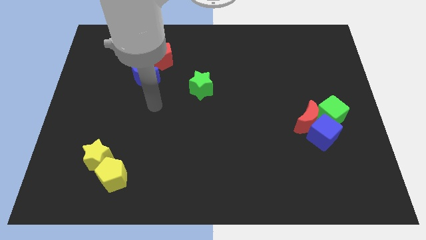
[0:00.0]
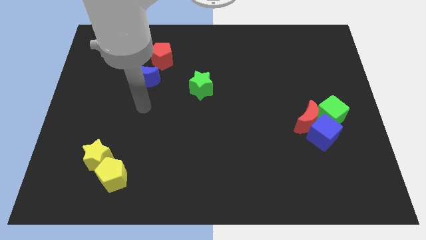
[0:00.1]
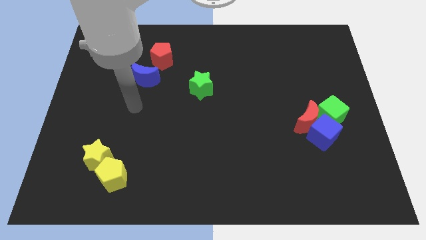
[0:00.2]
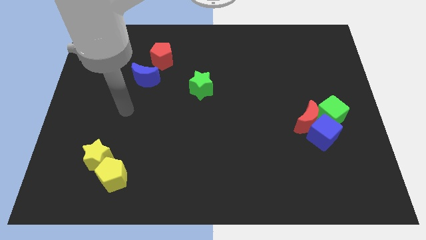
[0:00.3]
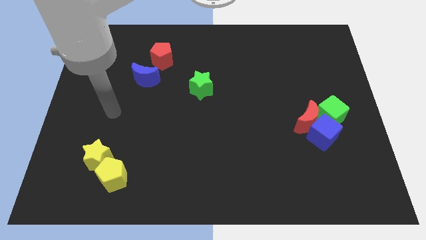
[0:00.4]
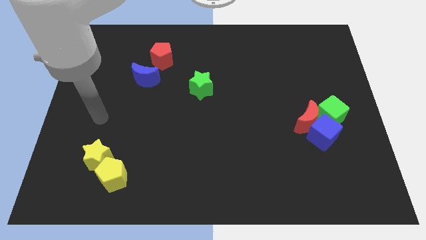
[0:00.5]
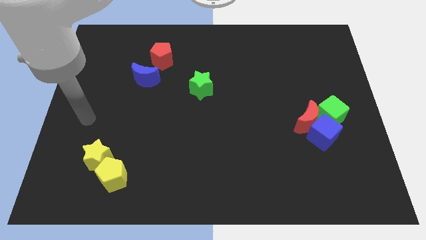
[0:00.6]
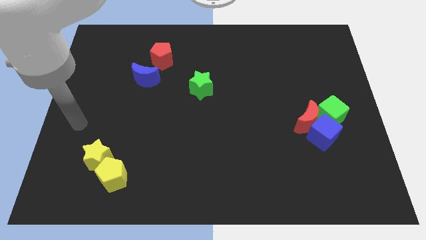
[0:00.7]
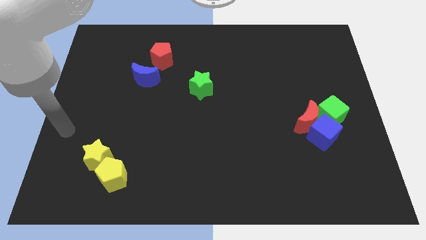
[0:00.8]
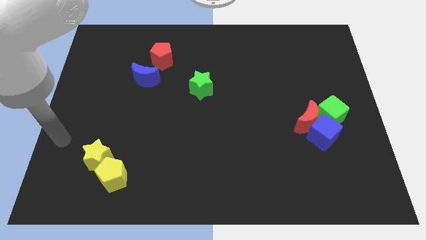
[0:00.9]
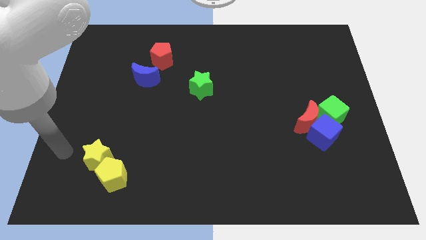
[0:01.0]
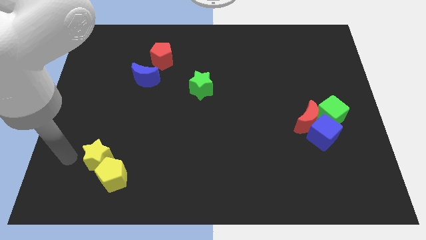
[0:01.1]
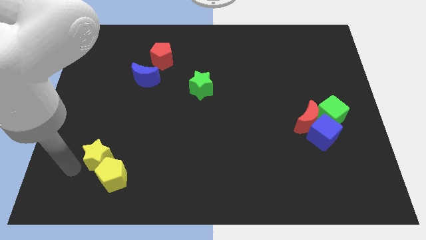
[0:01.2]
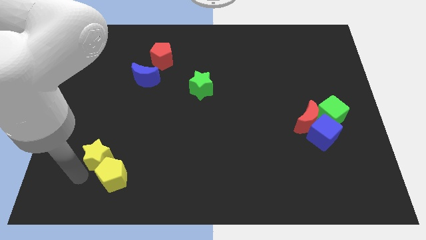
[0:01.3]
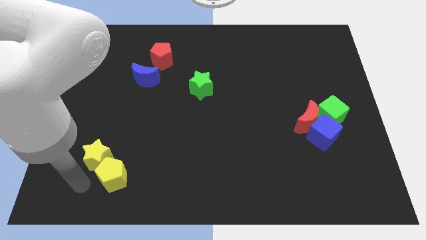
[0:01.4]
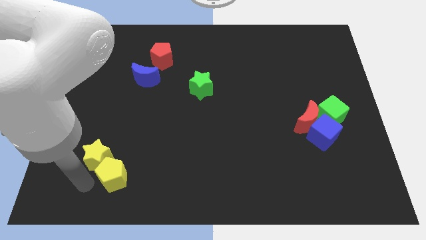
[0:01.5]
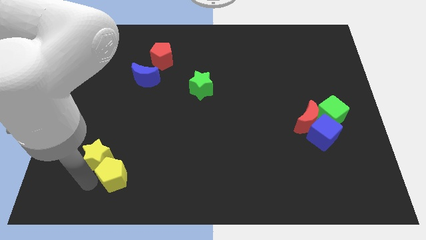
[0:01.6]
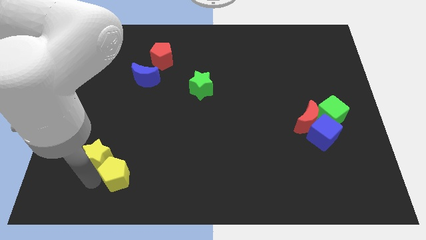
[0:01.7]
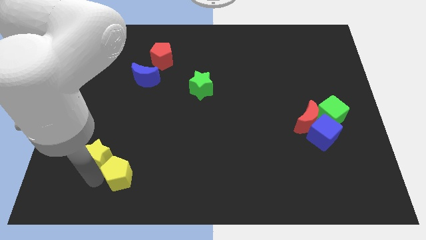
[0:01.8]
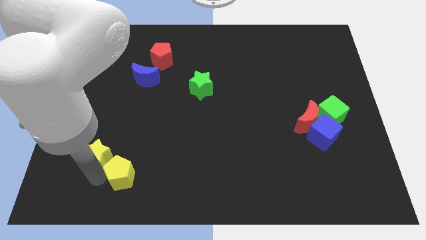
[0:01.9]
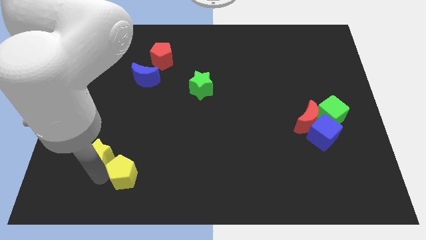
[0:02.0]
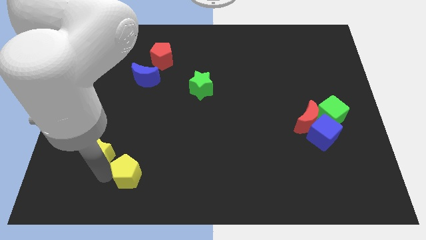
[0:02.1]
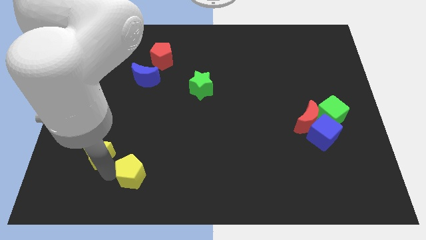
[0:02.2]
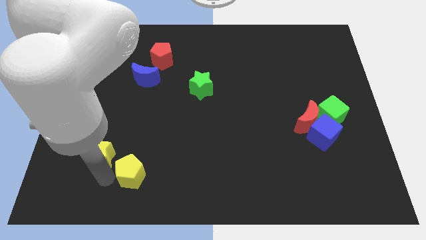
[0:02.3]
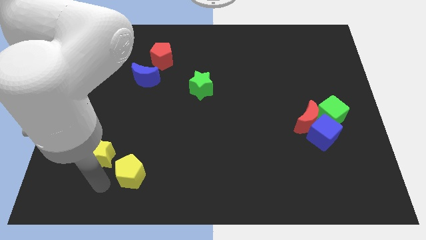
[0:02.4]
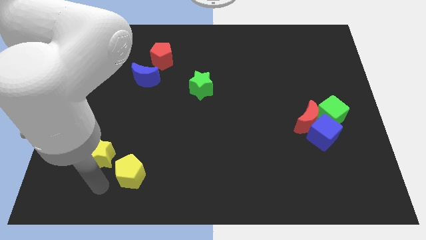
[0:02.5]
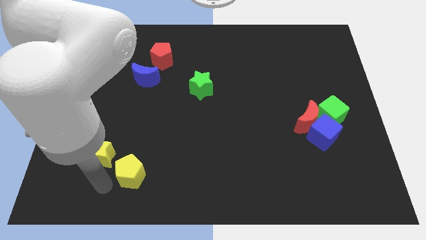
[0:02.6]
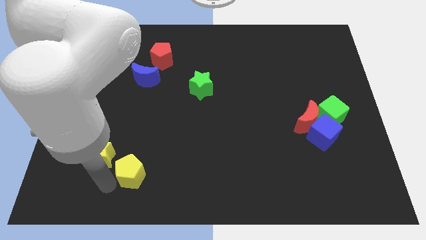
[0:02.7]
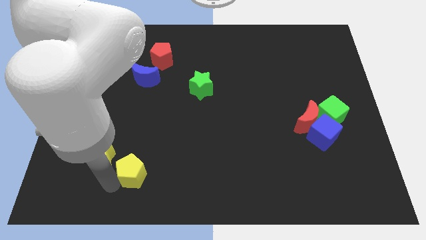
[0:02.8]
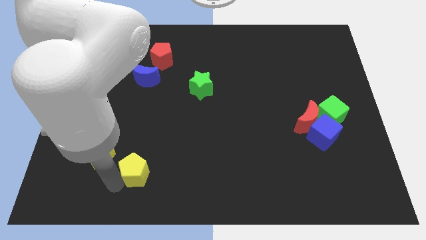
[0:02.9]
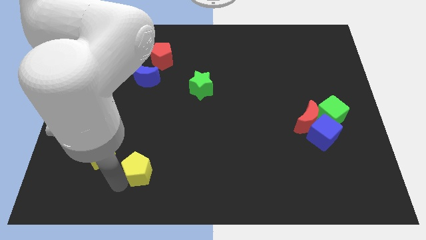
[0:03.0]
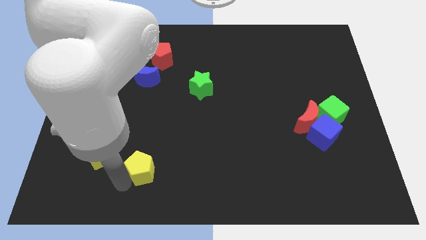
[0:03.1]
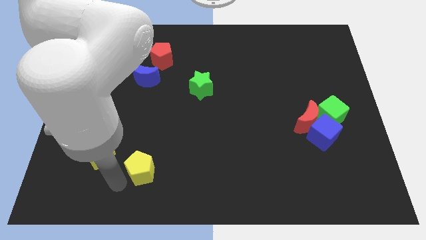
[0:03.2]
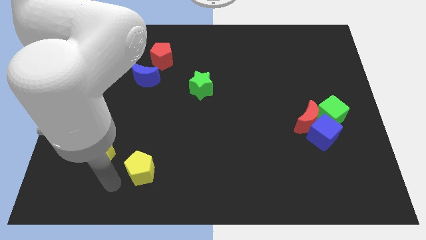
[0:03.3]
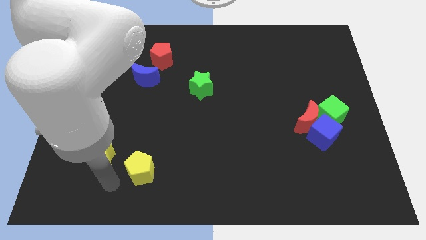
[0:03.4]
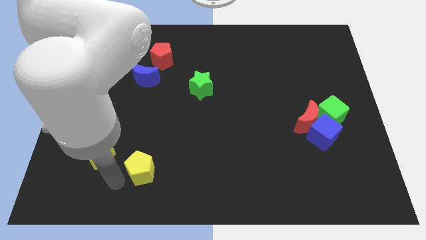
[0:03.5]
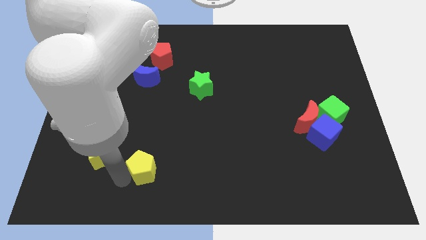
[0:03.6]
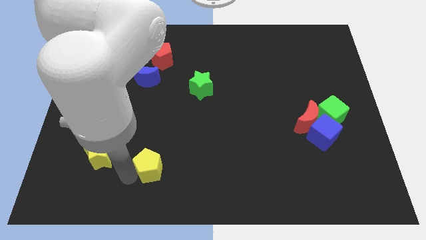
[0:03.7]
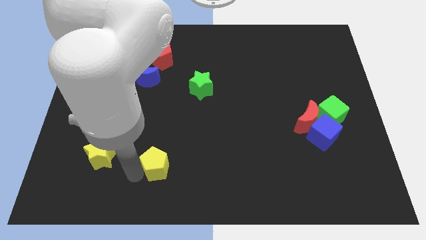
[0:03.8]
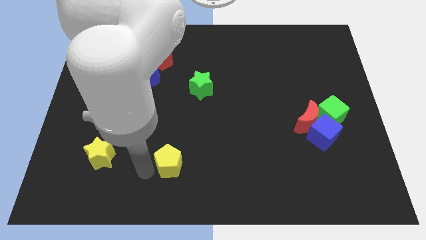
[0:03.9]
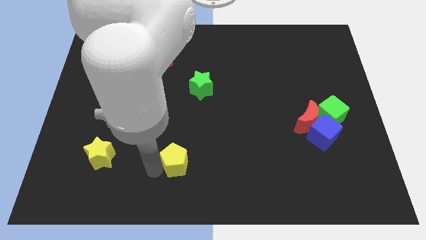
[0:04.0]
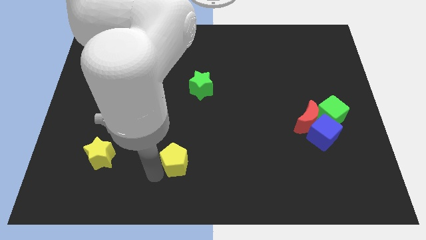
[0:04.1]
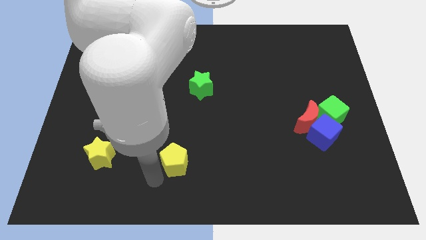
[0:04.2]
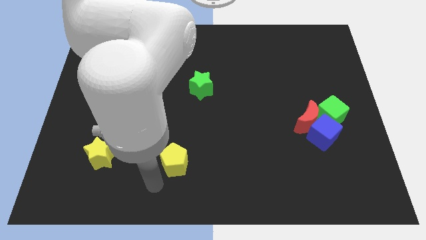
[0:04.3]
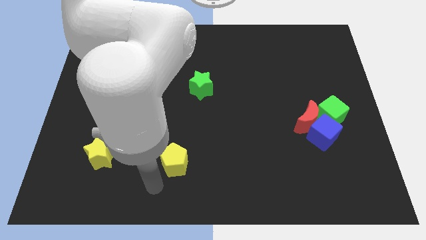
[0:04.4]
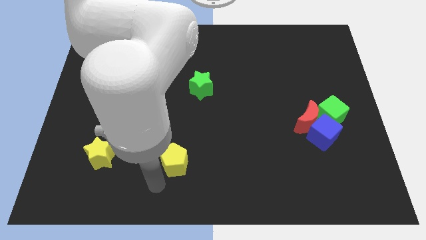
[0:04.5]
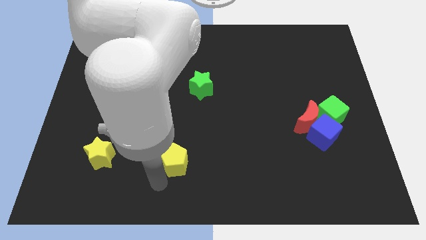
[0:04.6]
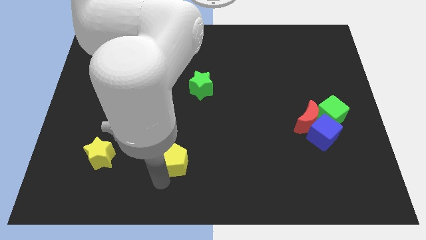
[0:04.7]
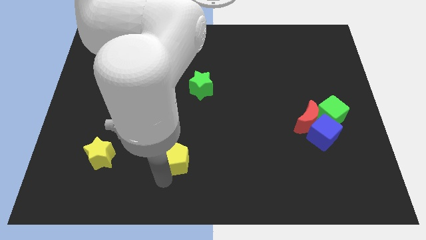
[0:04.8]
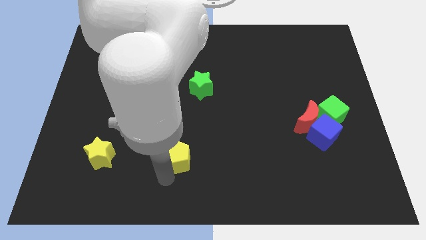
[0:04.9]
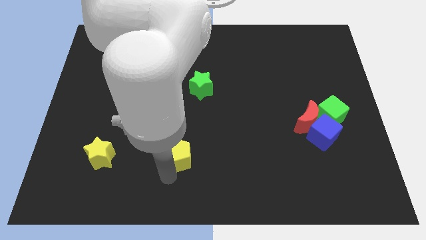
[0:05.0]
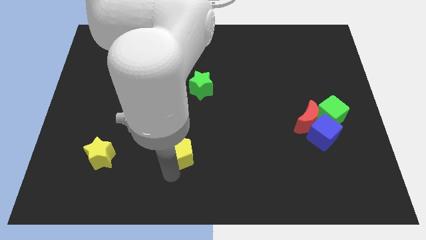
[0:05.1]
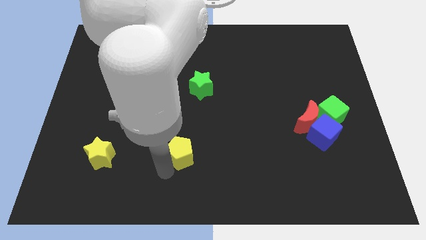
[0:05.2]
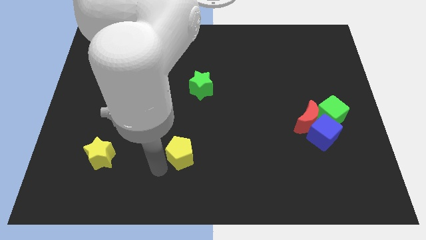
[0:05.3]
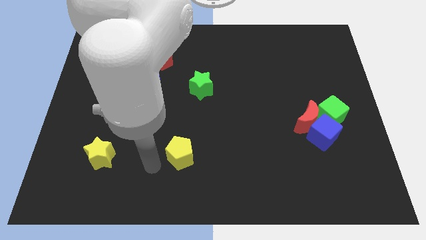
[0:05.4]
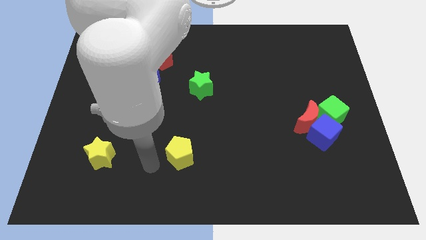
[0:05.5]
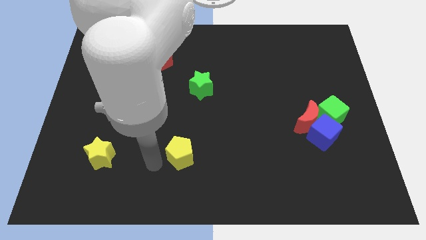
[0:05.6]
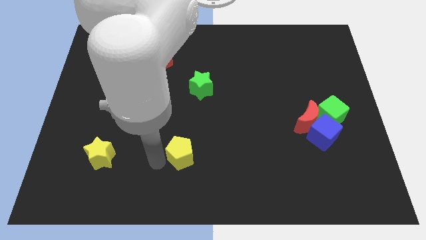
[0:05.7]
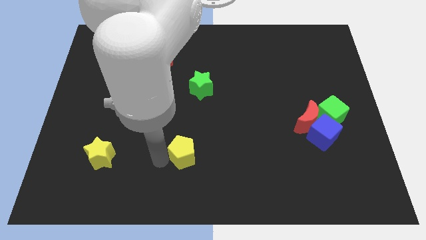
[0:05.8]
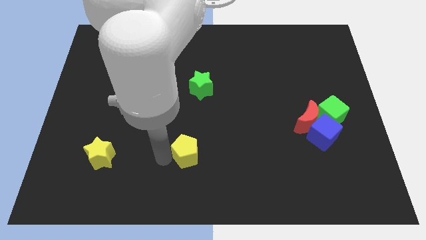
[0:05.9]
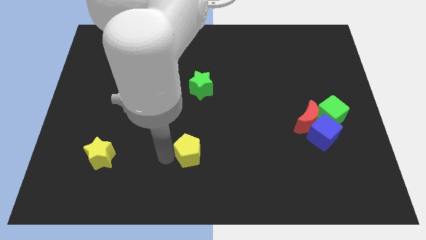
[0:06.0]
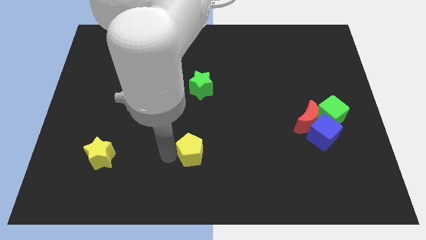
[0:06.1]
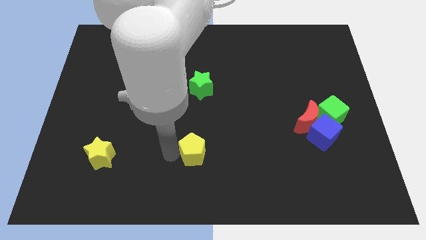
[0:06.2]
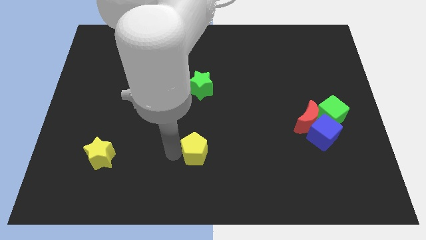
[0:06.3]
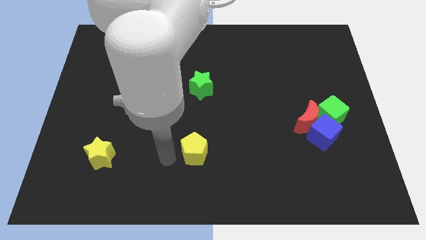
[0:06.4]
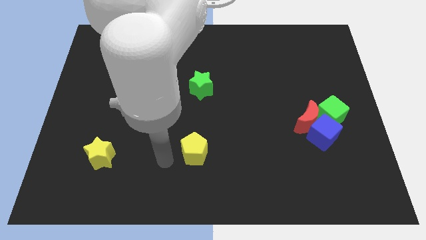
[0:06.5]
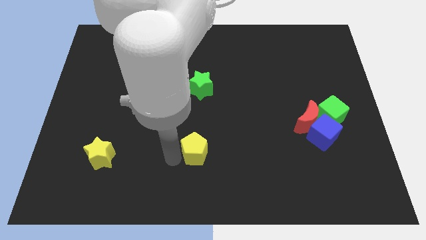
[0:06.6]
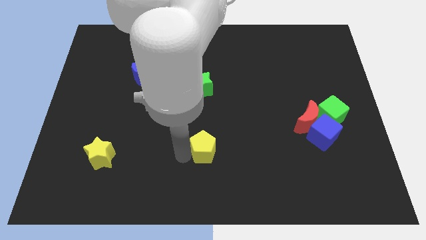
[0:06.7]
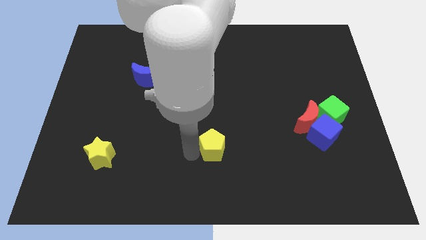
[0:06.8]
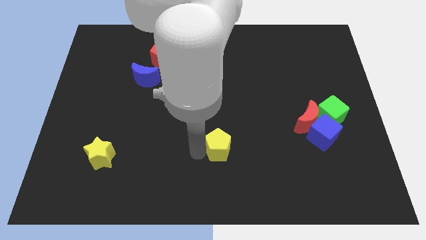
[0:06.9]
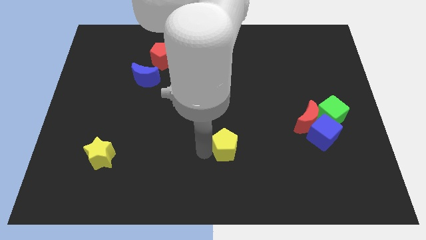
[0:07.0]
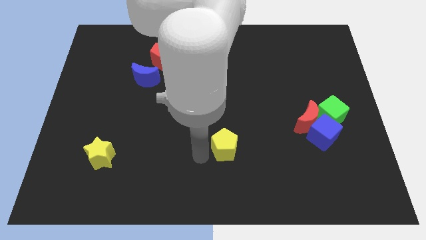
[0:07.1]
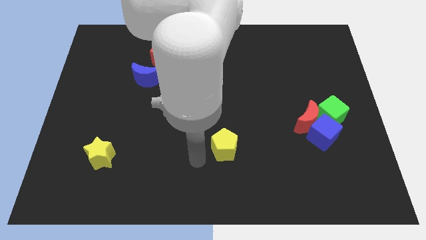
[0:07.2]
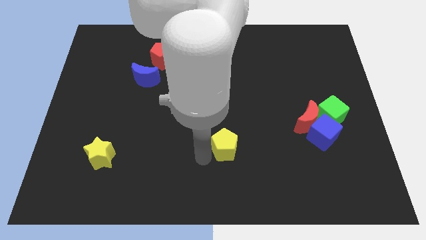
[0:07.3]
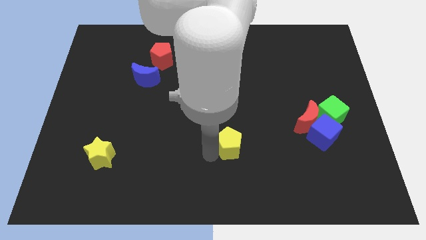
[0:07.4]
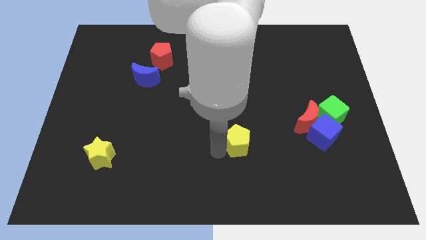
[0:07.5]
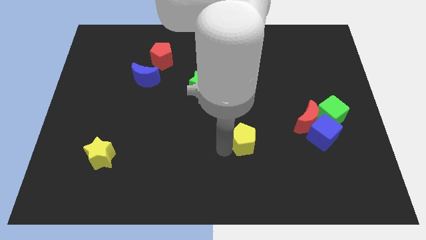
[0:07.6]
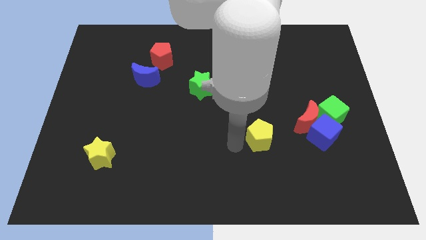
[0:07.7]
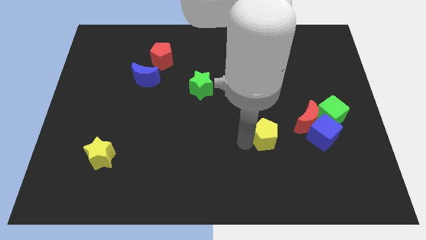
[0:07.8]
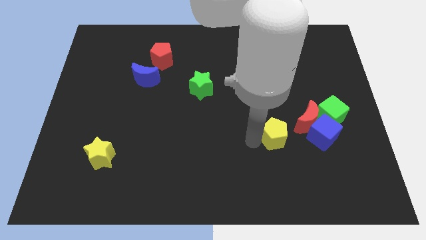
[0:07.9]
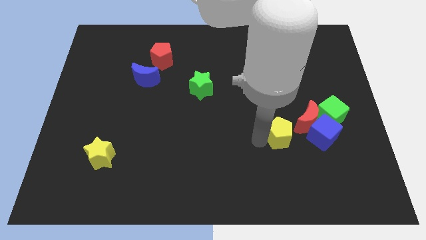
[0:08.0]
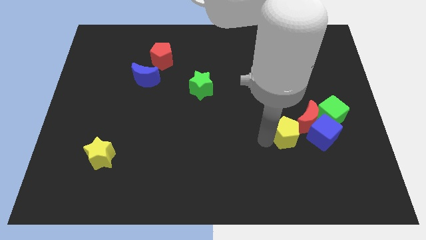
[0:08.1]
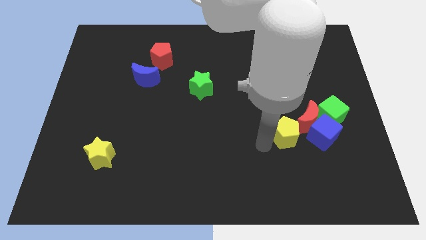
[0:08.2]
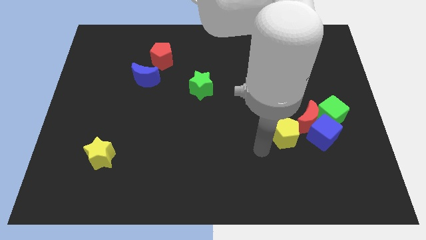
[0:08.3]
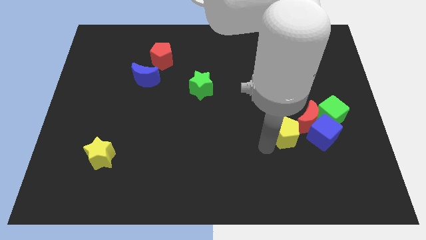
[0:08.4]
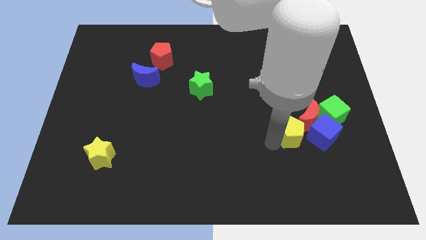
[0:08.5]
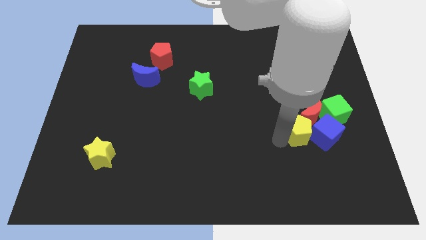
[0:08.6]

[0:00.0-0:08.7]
slide the yellow pentagon close to the red moon
